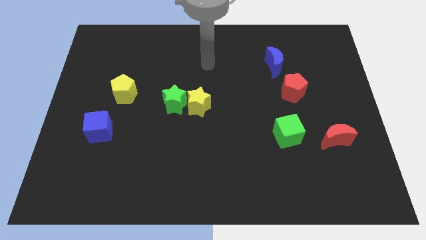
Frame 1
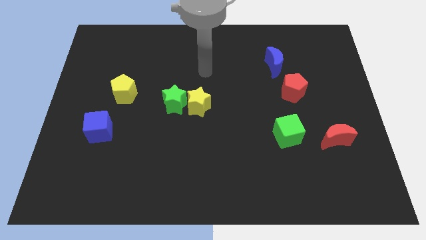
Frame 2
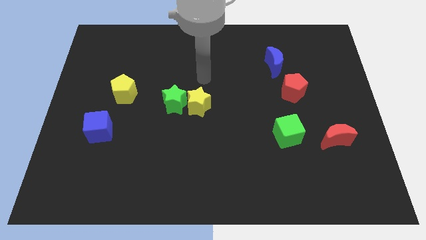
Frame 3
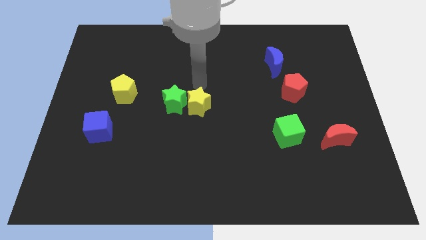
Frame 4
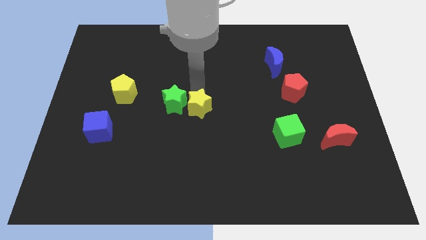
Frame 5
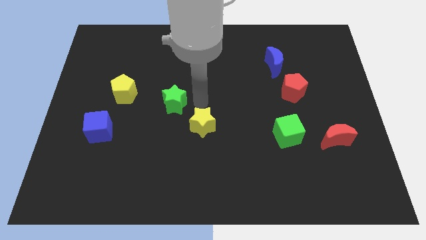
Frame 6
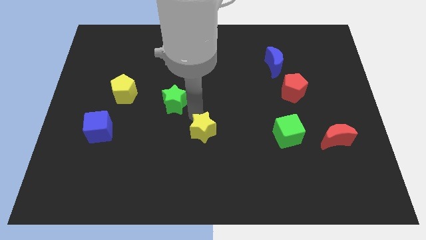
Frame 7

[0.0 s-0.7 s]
pull the green star apart from the yellow star

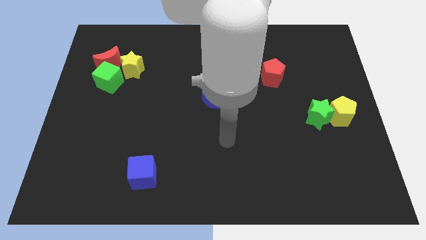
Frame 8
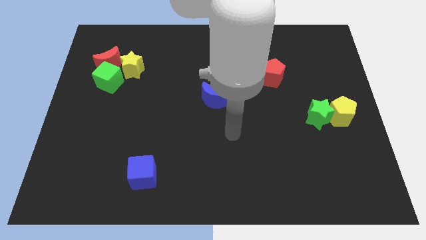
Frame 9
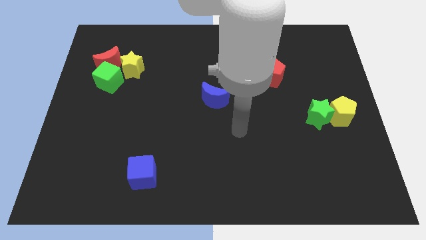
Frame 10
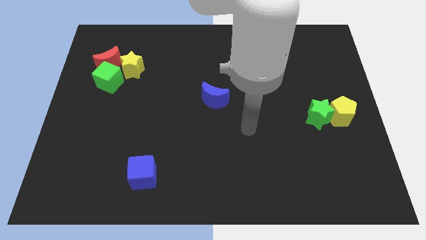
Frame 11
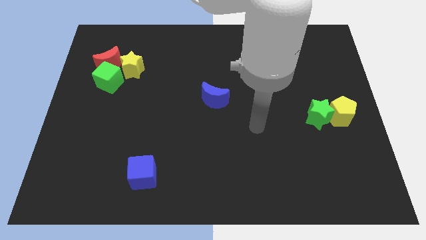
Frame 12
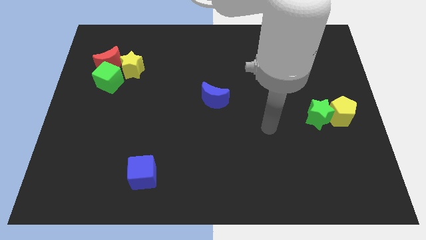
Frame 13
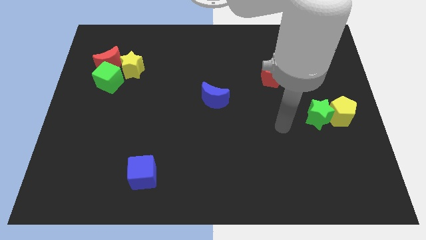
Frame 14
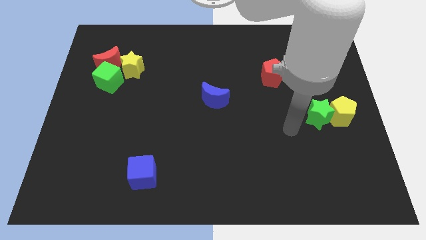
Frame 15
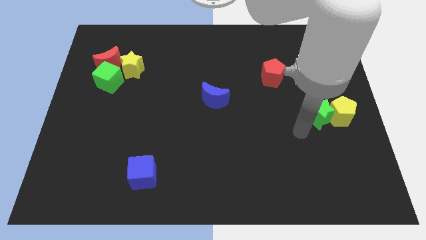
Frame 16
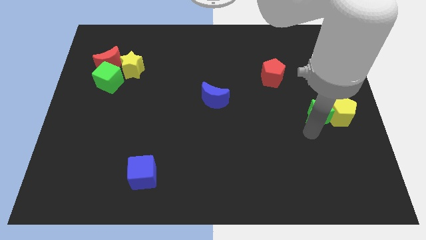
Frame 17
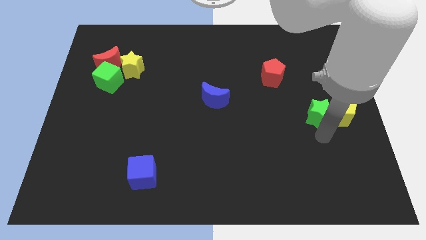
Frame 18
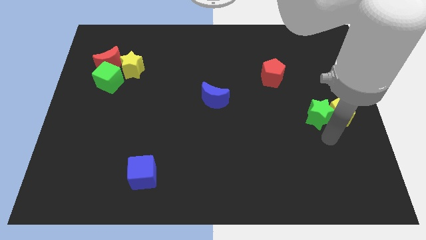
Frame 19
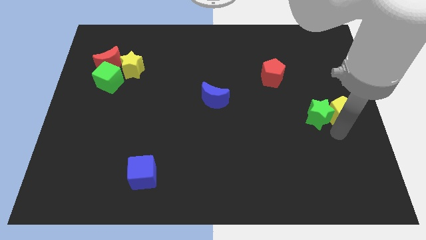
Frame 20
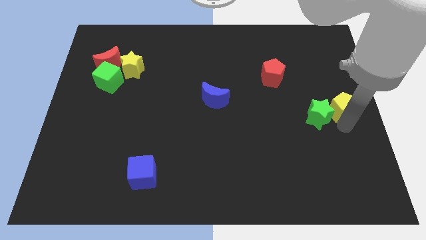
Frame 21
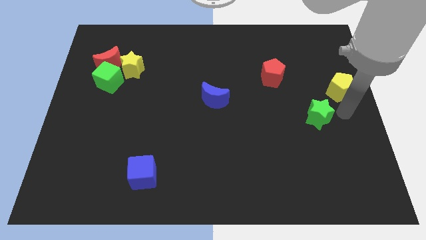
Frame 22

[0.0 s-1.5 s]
separate the green star from the yellow pentagon

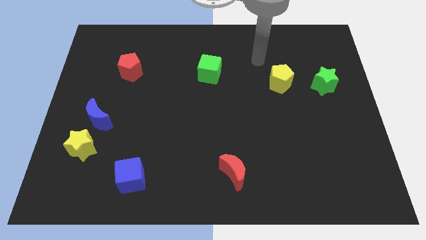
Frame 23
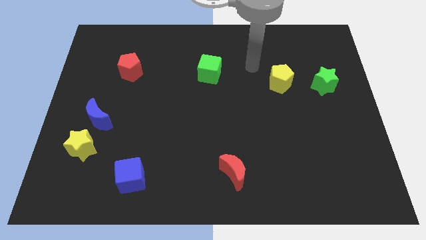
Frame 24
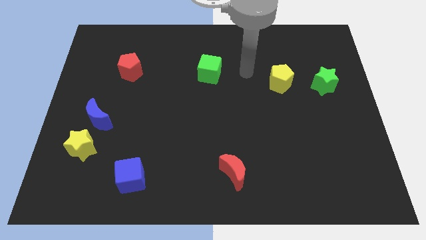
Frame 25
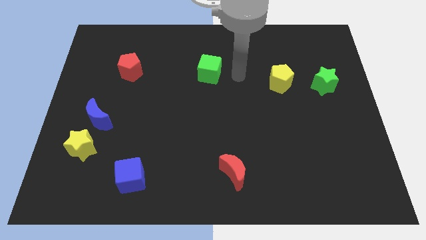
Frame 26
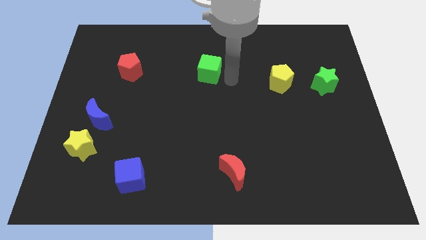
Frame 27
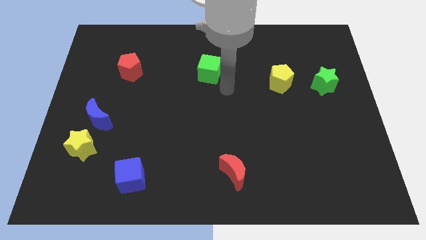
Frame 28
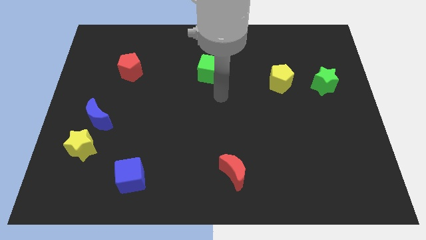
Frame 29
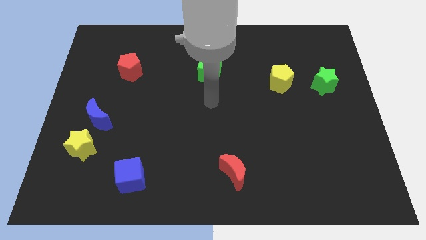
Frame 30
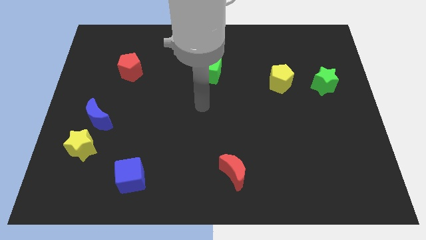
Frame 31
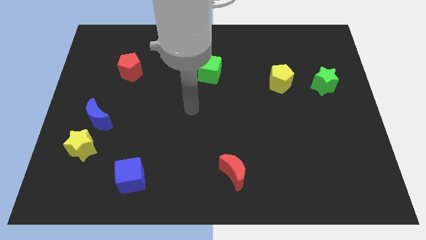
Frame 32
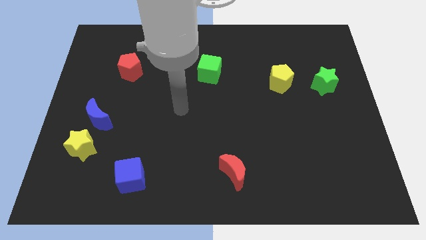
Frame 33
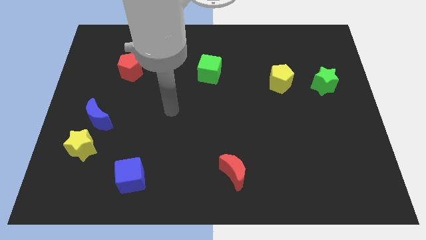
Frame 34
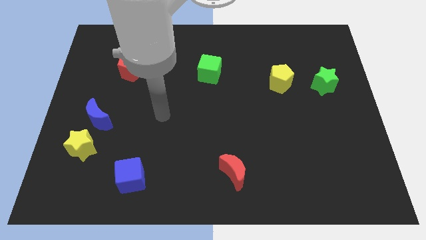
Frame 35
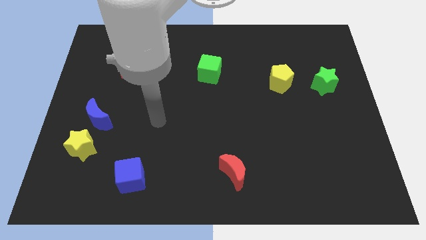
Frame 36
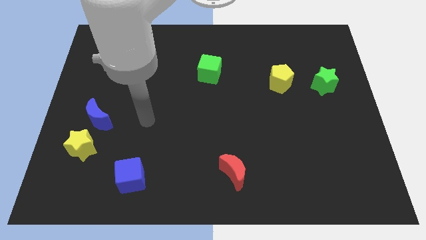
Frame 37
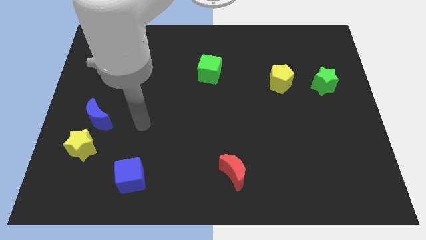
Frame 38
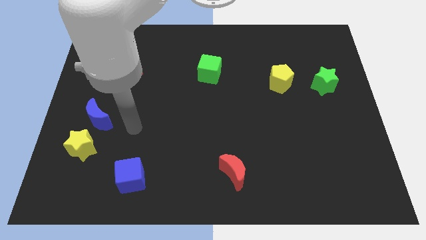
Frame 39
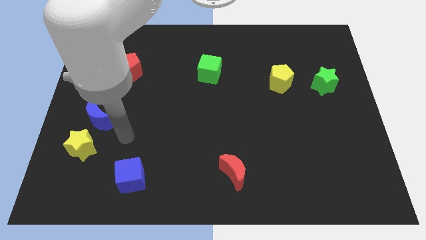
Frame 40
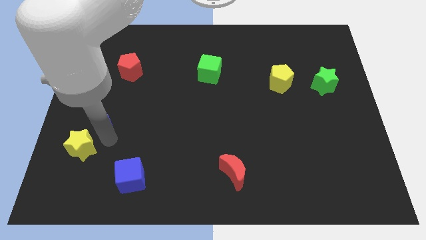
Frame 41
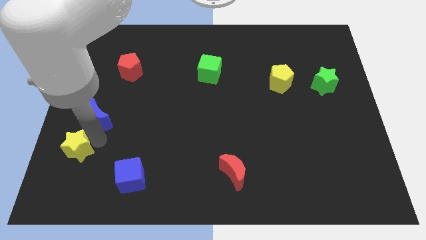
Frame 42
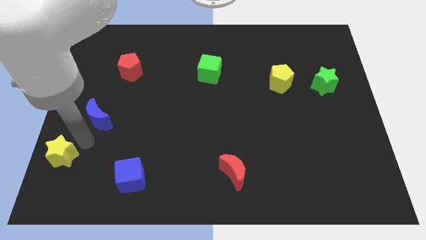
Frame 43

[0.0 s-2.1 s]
pull the blue moon apart from the yellow star

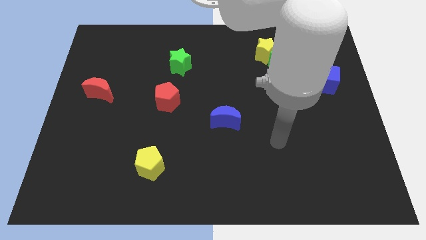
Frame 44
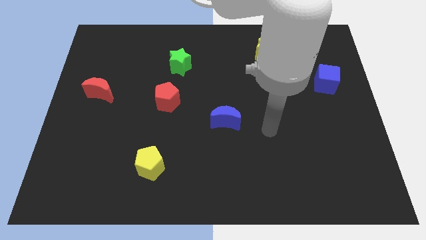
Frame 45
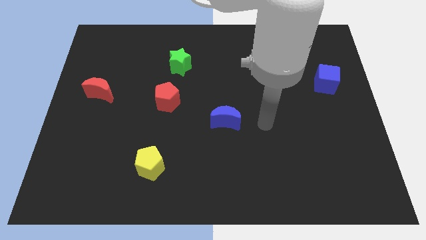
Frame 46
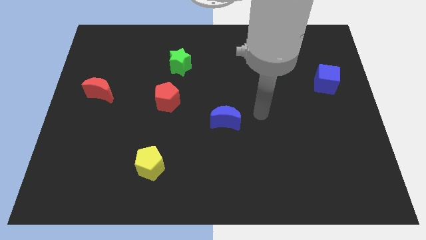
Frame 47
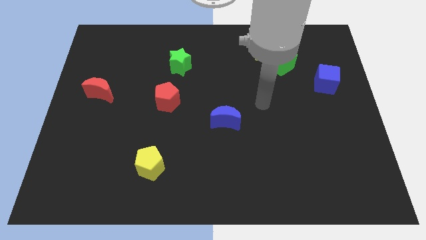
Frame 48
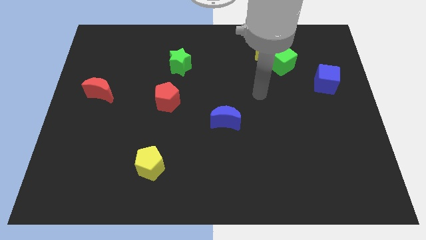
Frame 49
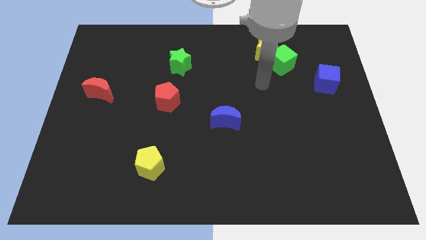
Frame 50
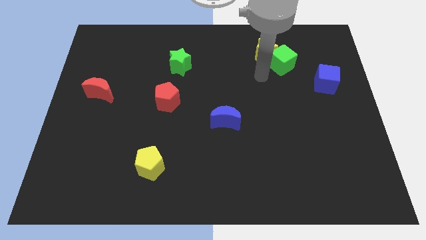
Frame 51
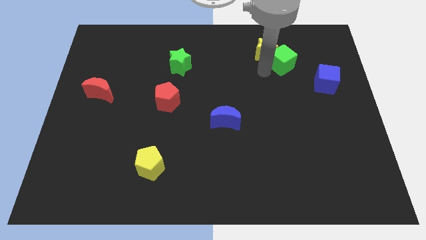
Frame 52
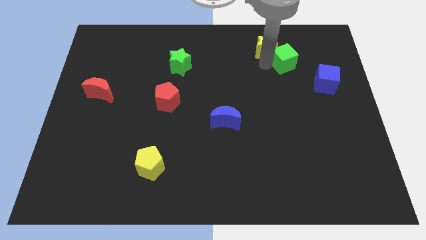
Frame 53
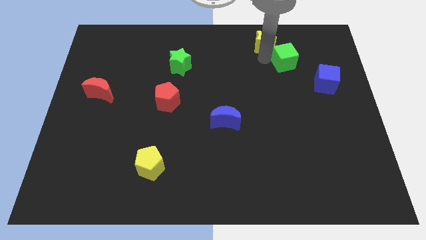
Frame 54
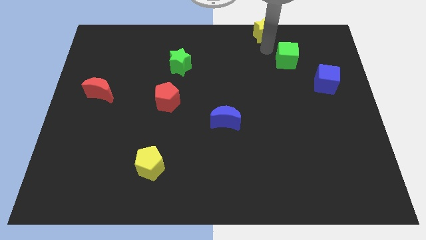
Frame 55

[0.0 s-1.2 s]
pull the green cube apart from the yellow star

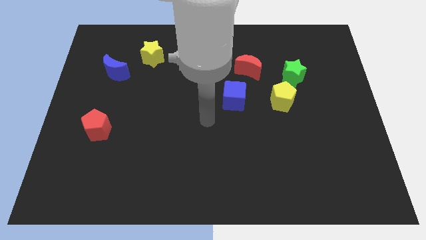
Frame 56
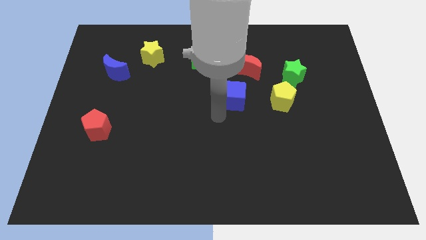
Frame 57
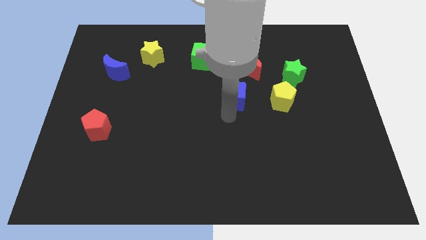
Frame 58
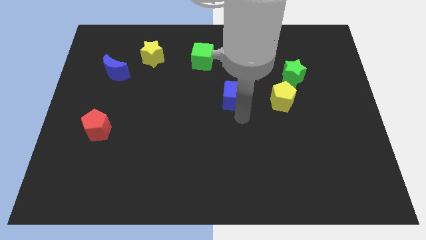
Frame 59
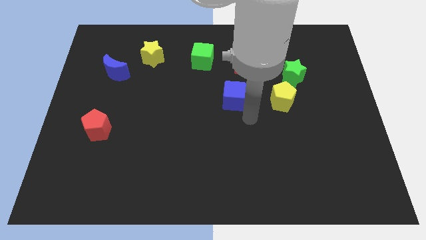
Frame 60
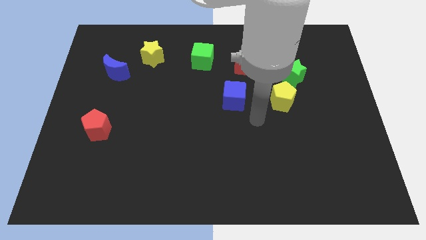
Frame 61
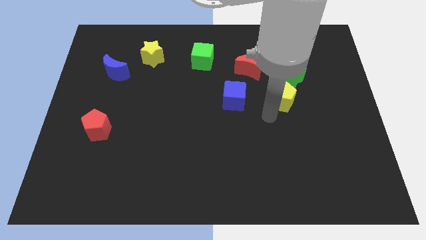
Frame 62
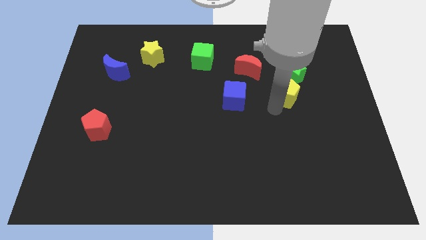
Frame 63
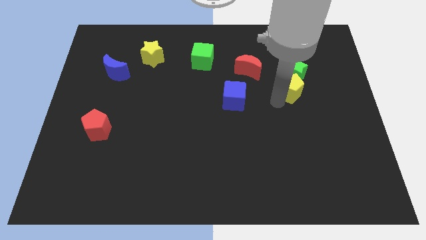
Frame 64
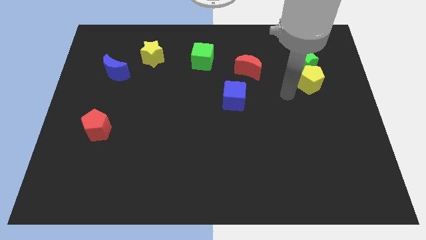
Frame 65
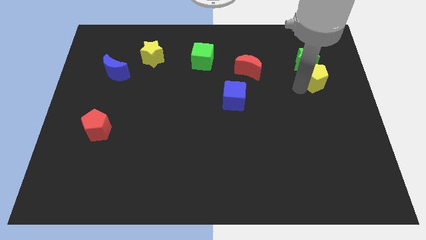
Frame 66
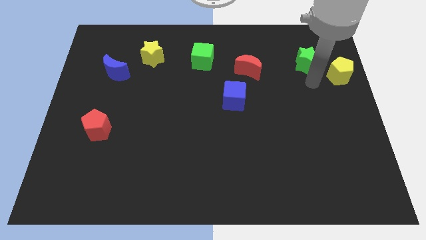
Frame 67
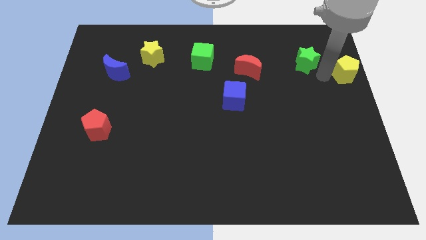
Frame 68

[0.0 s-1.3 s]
pull the green star apart from the yellow pentagon

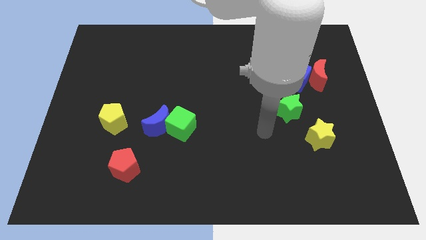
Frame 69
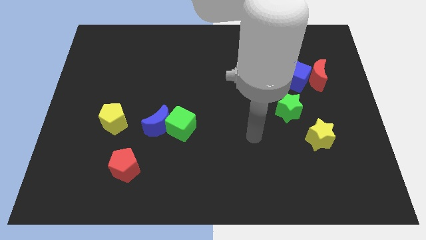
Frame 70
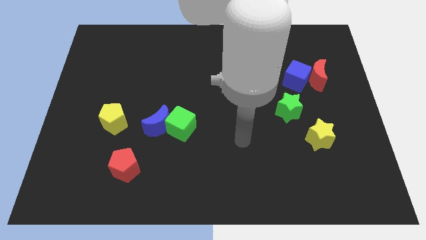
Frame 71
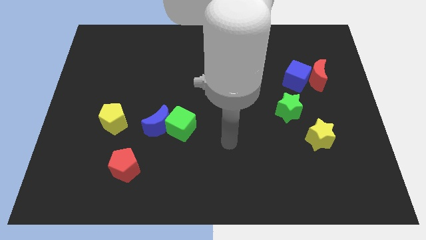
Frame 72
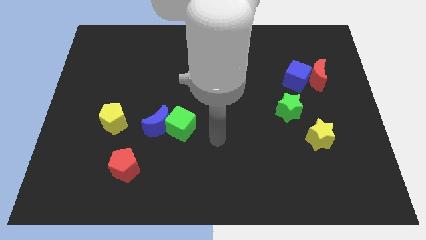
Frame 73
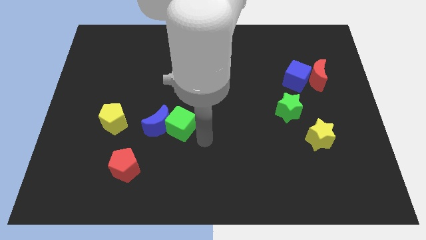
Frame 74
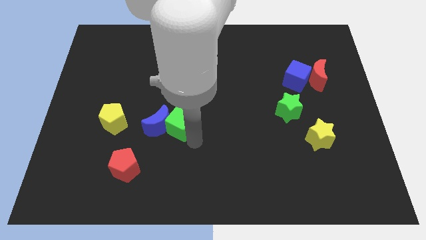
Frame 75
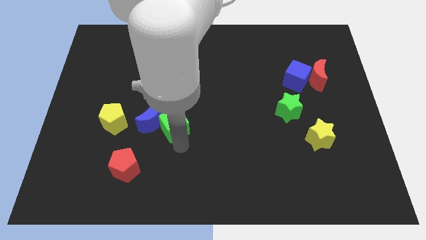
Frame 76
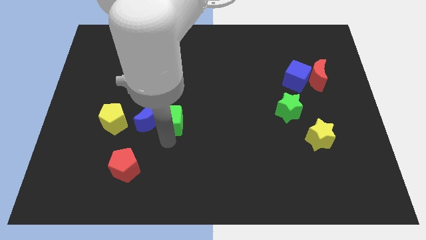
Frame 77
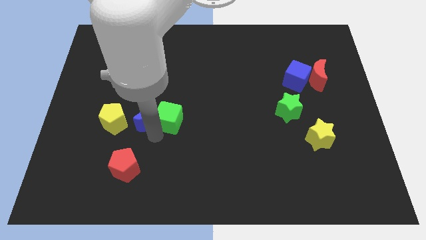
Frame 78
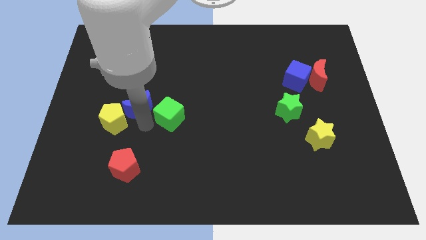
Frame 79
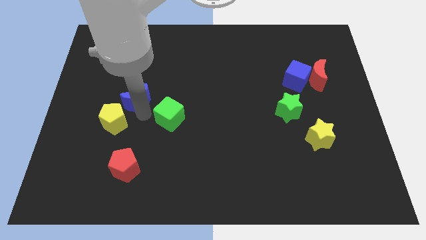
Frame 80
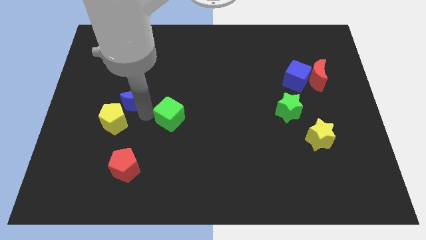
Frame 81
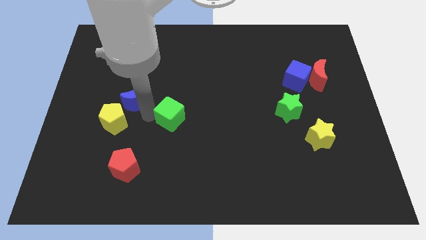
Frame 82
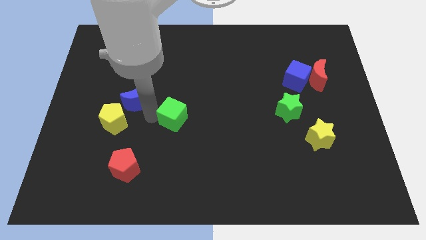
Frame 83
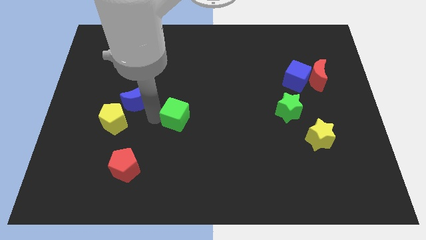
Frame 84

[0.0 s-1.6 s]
move the green cube away from the blue moon

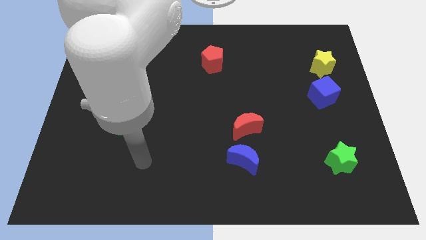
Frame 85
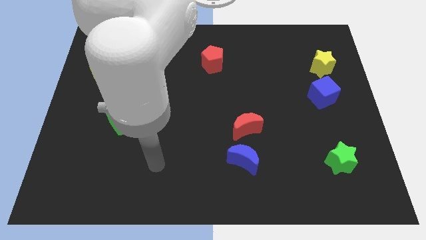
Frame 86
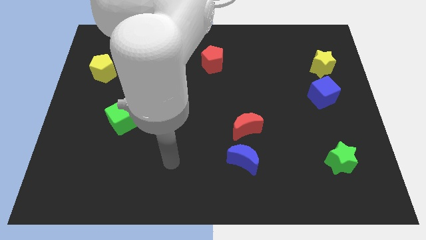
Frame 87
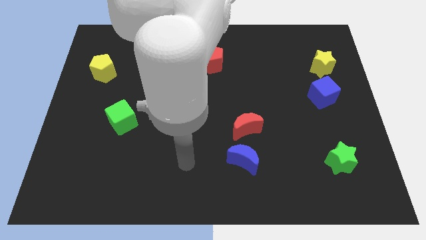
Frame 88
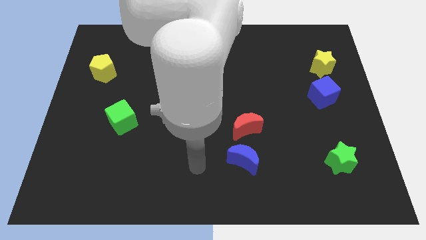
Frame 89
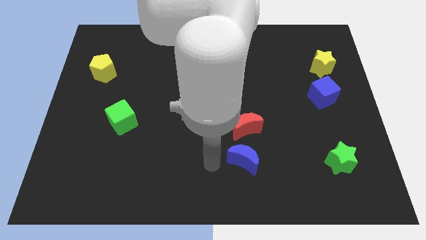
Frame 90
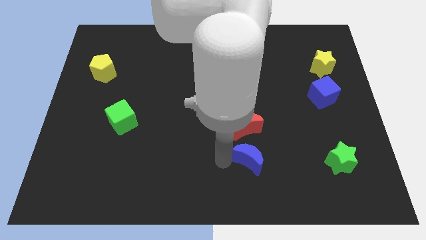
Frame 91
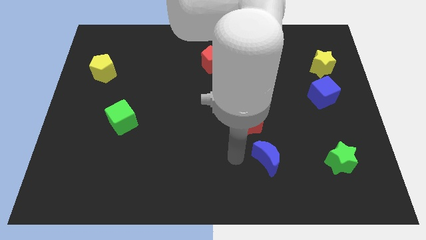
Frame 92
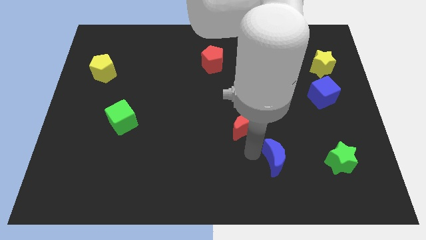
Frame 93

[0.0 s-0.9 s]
separate the red moon from the blue moon
